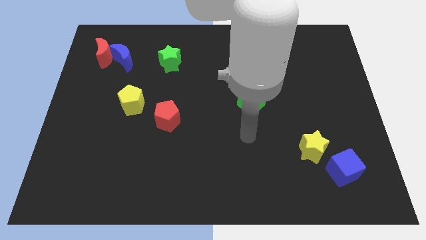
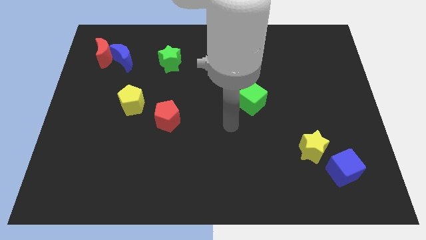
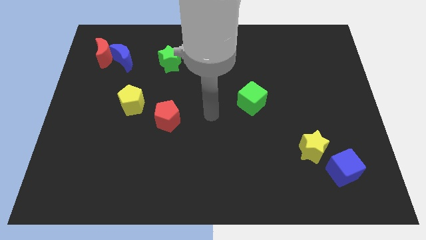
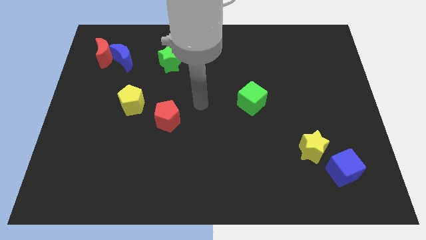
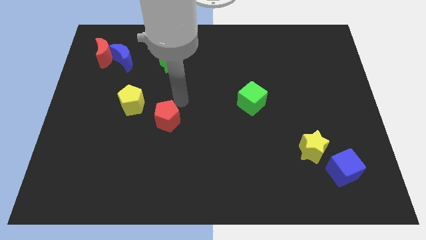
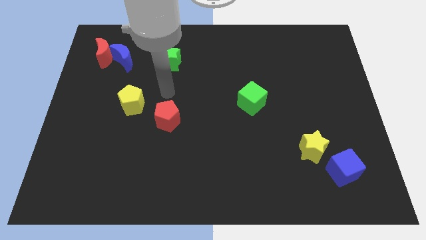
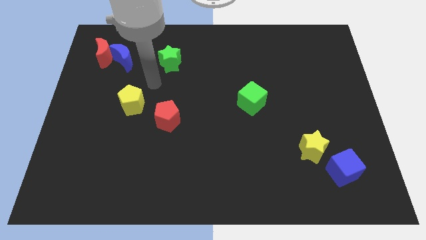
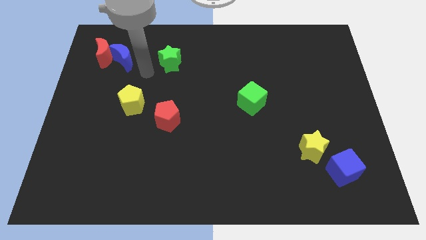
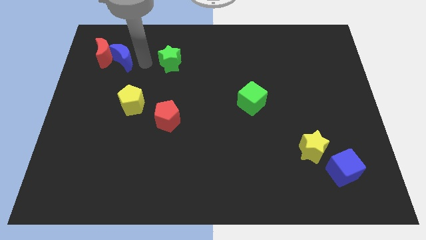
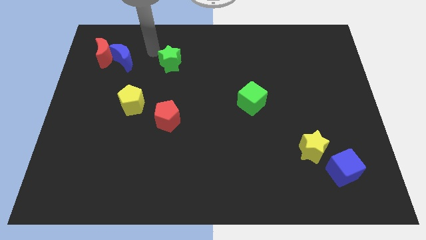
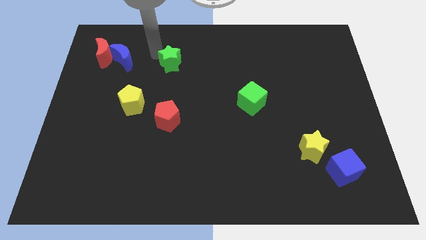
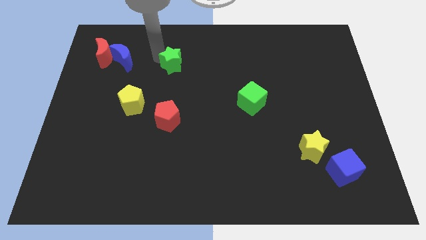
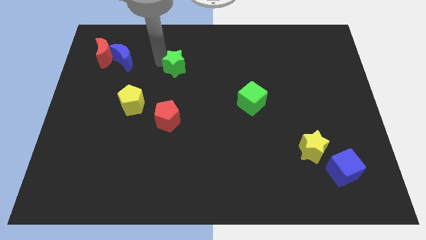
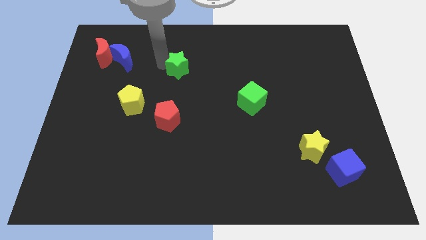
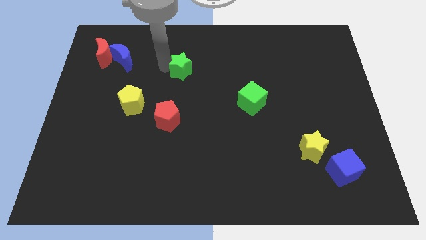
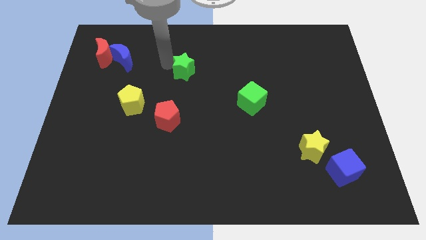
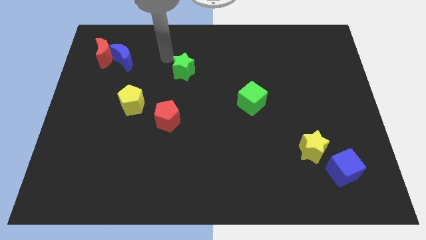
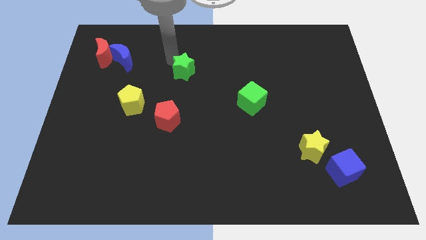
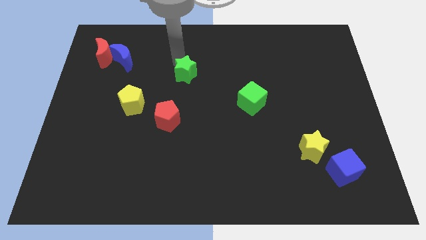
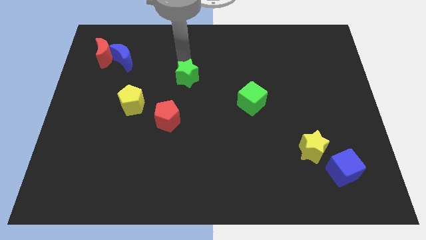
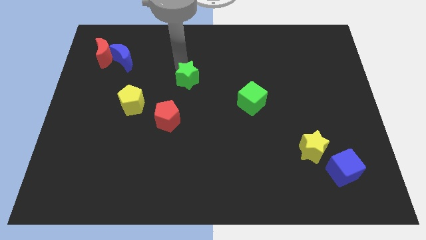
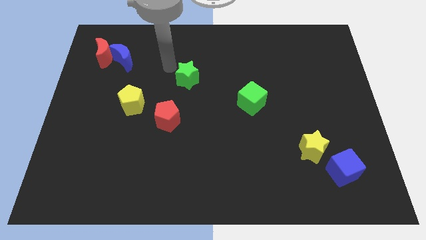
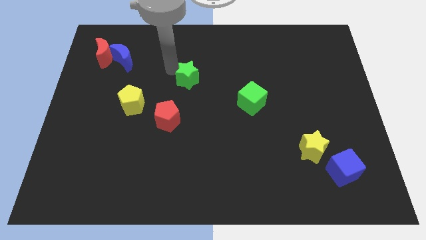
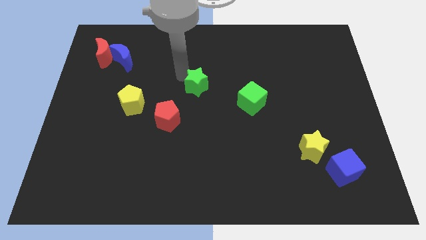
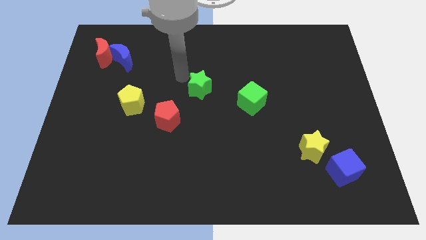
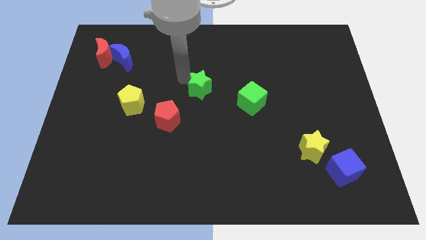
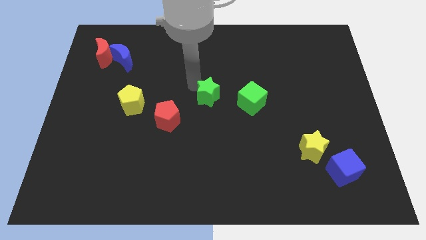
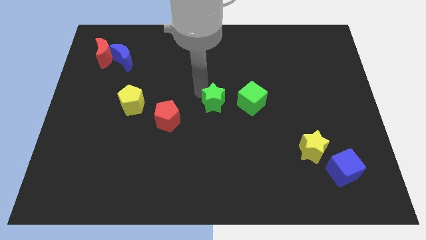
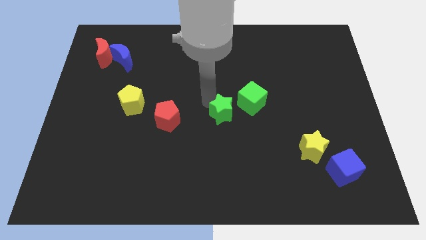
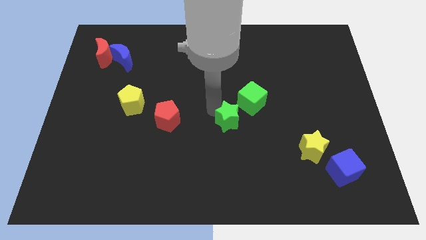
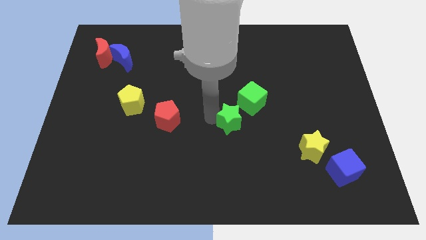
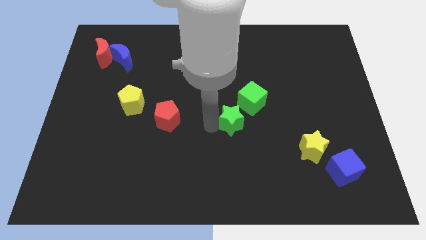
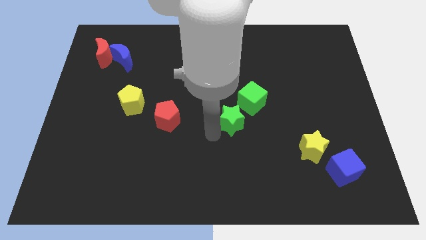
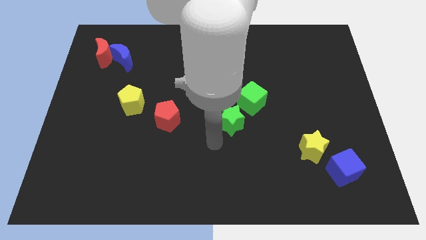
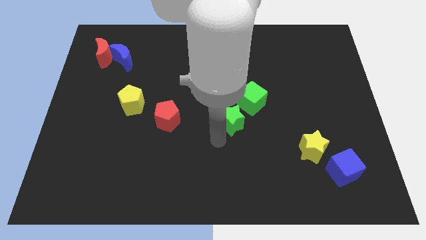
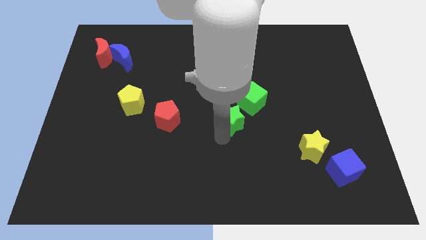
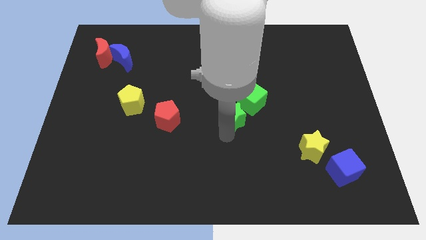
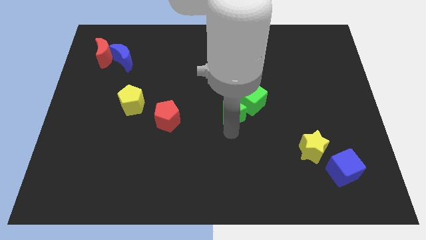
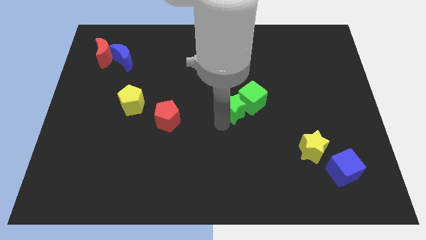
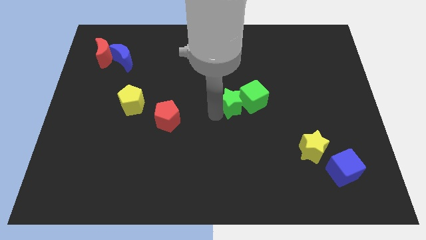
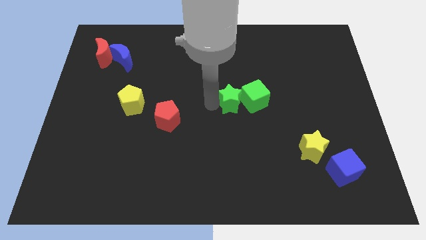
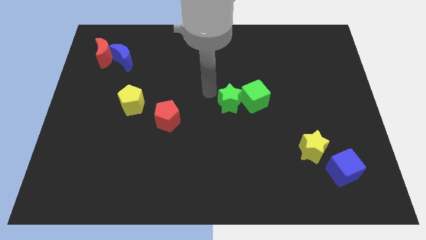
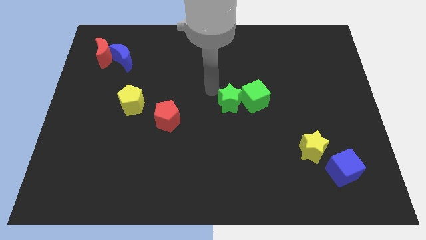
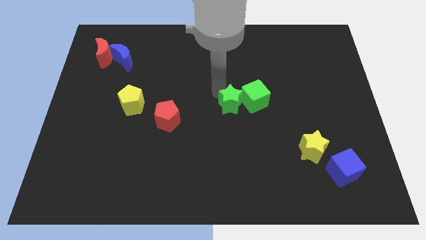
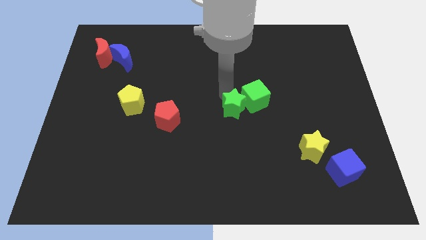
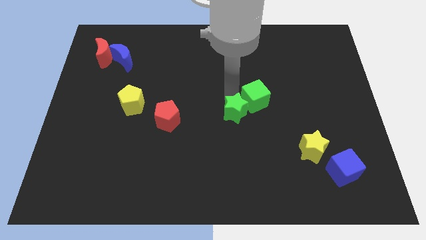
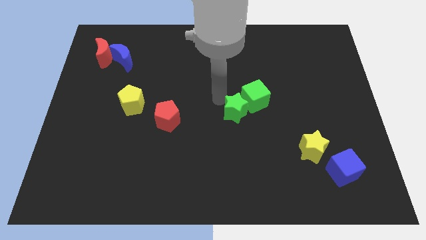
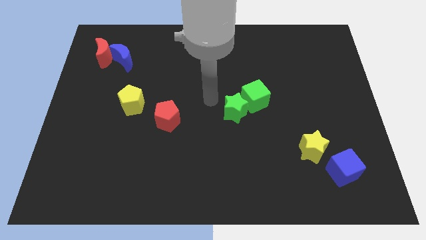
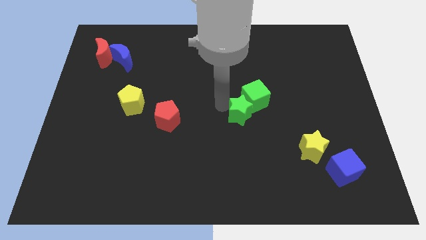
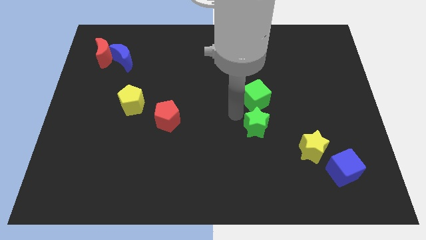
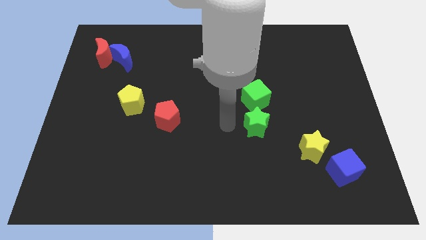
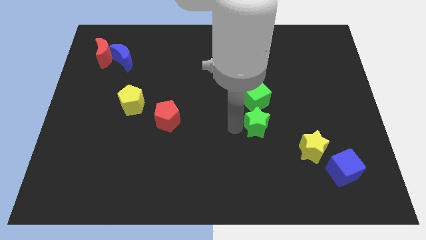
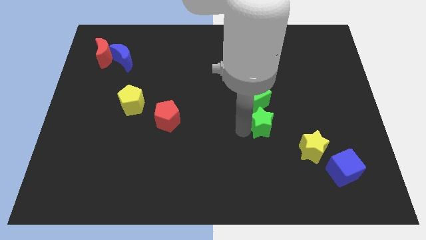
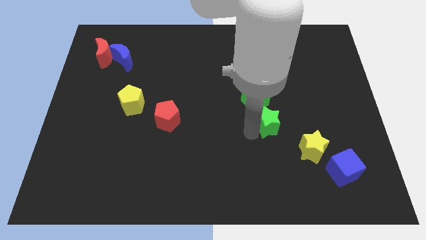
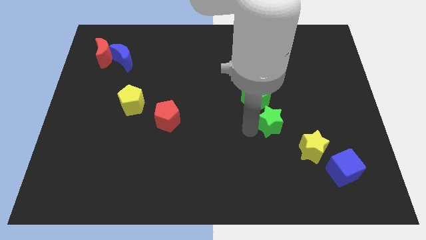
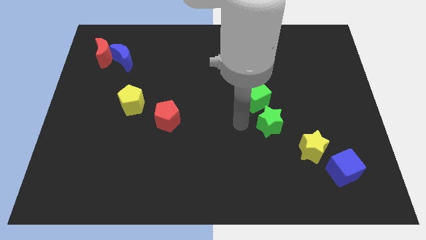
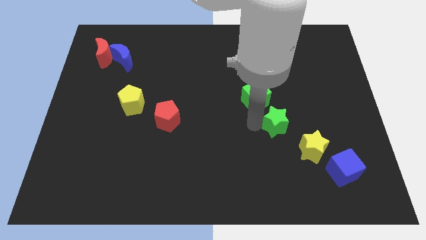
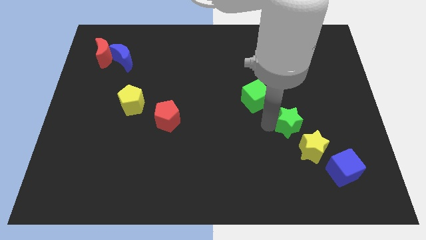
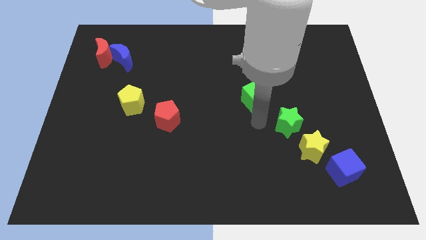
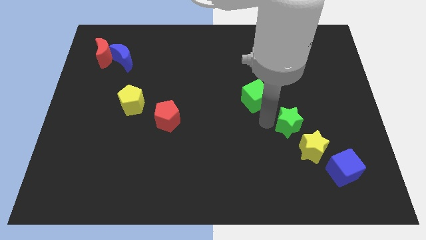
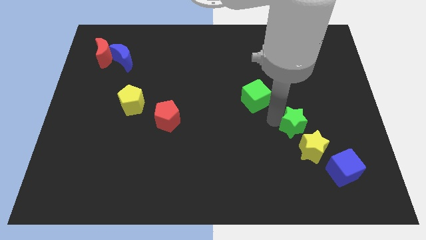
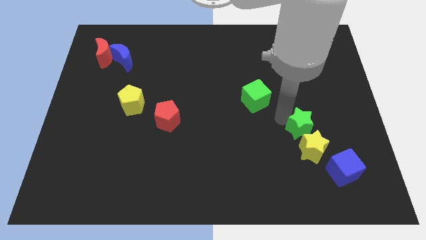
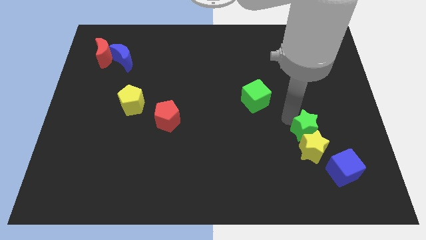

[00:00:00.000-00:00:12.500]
slide the green star diagonally up and to the right of the yellow star
